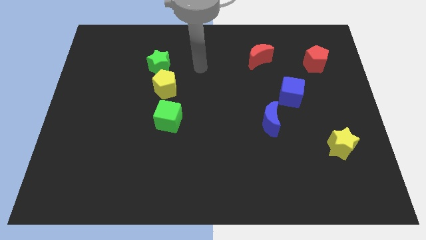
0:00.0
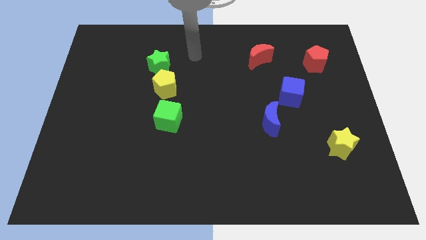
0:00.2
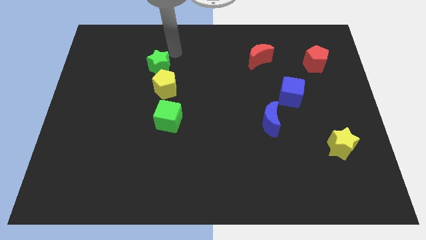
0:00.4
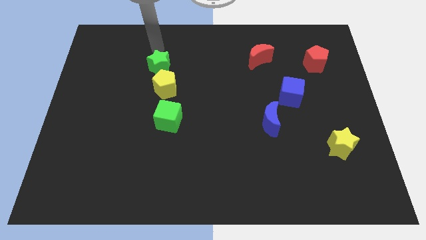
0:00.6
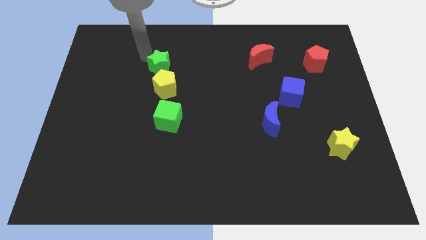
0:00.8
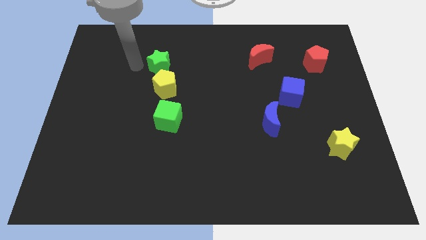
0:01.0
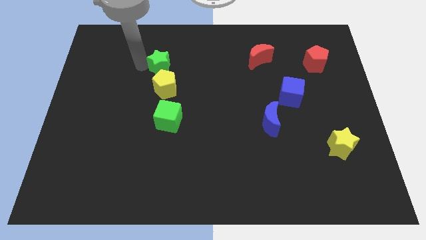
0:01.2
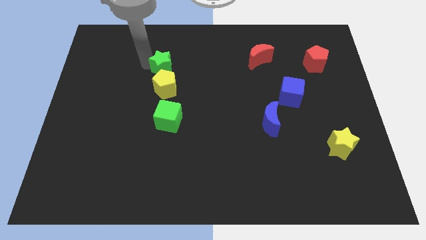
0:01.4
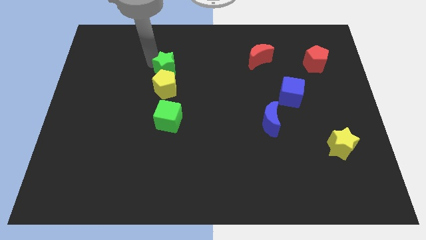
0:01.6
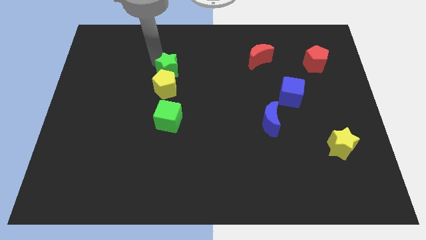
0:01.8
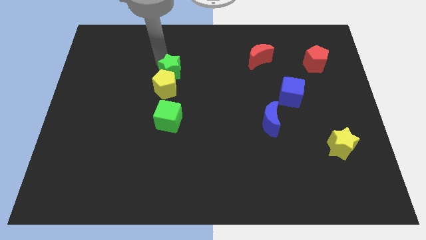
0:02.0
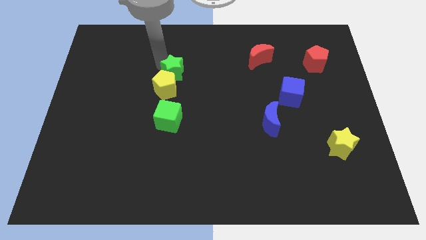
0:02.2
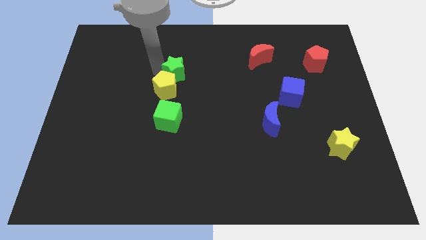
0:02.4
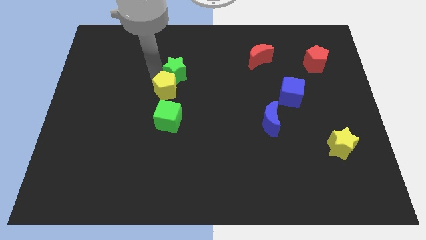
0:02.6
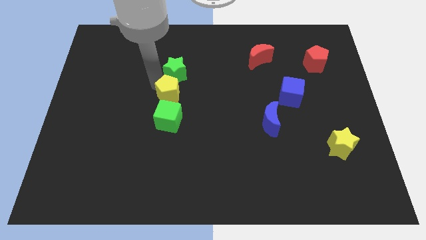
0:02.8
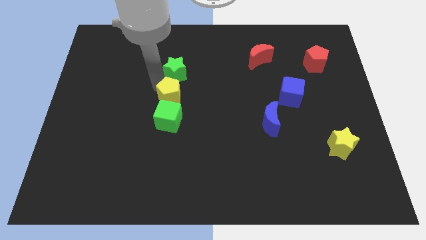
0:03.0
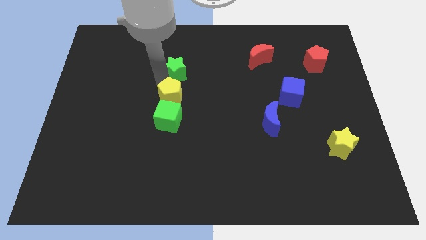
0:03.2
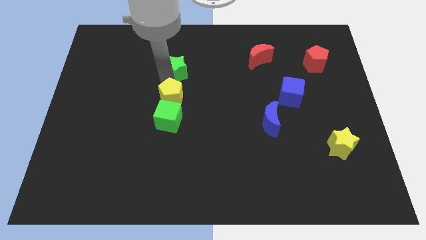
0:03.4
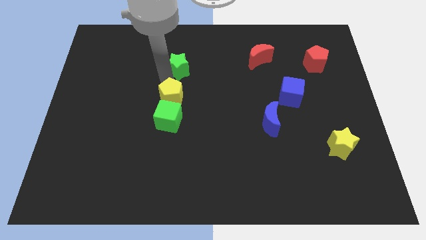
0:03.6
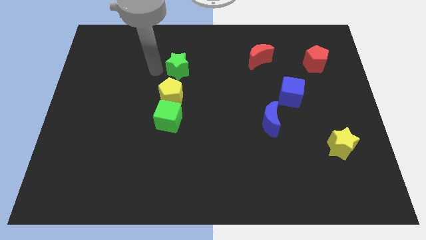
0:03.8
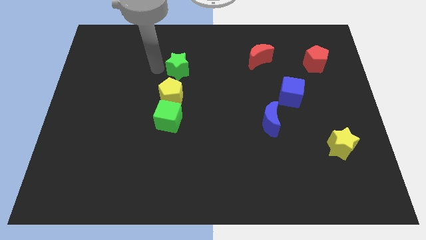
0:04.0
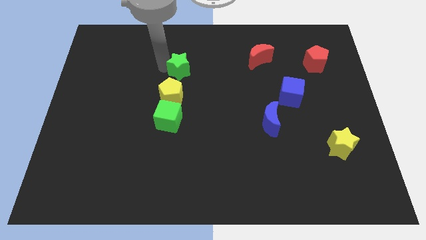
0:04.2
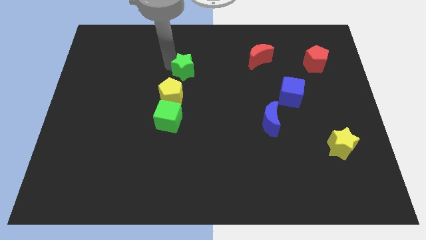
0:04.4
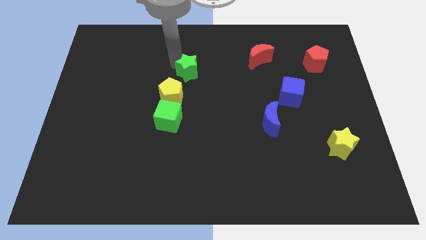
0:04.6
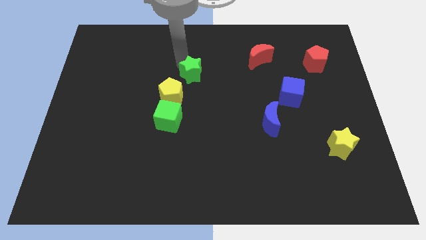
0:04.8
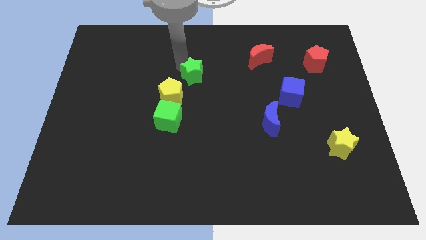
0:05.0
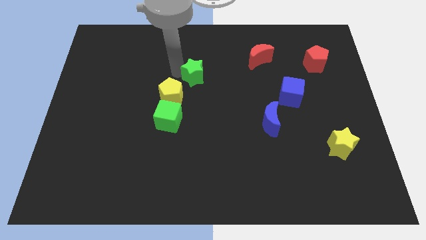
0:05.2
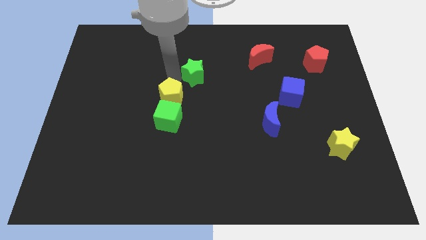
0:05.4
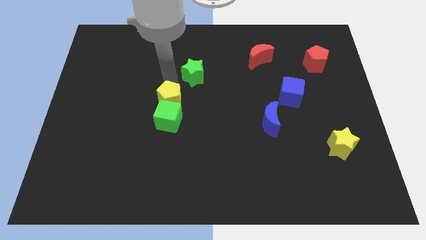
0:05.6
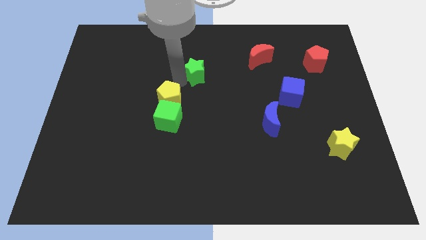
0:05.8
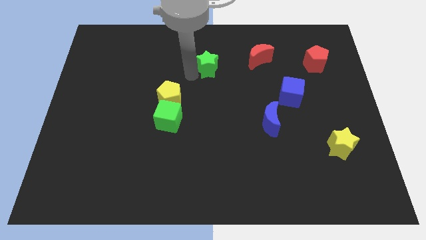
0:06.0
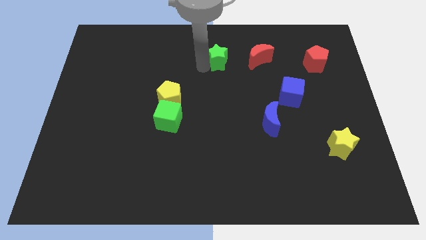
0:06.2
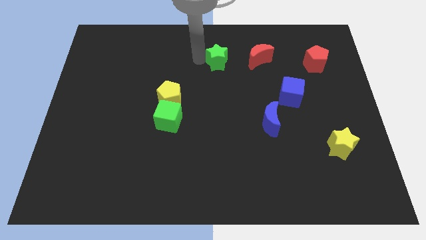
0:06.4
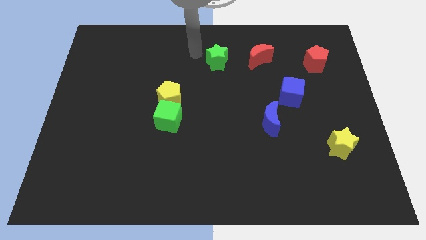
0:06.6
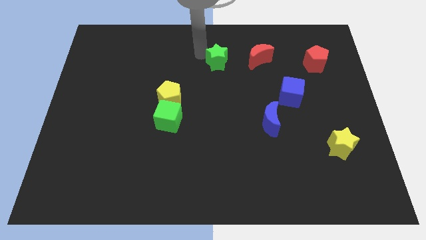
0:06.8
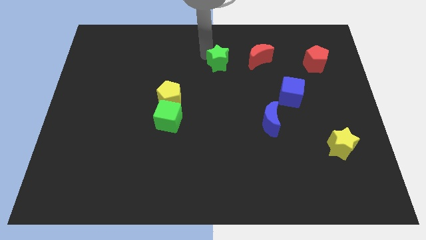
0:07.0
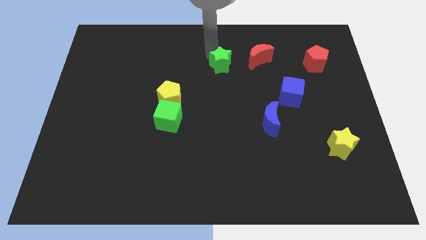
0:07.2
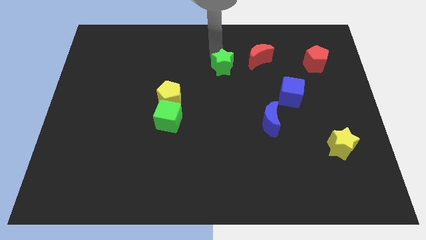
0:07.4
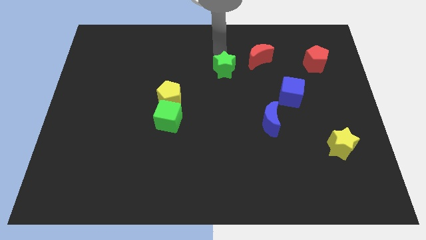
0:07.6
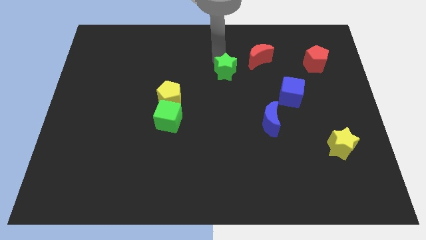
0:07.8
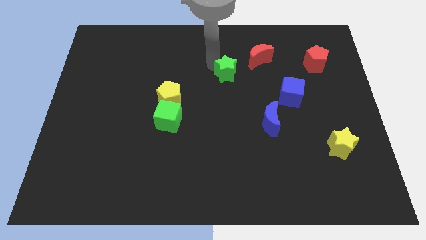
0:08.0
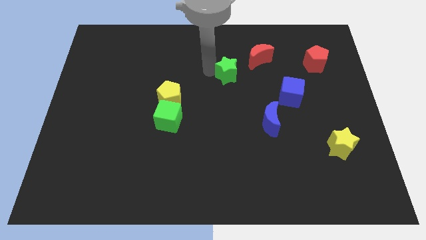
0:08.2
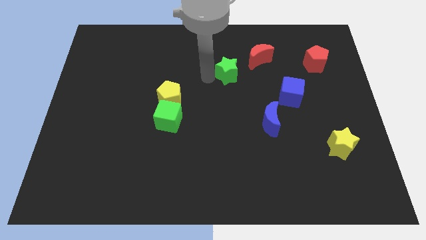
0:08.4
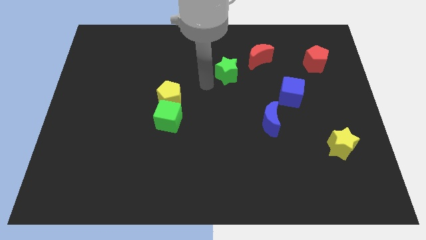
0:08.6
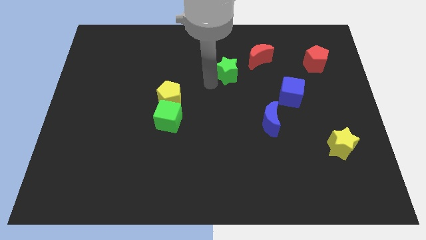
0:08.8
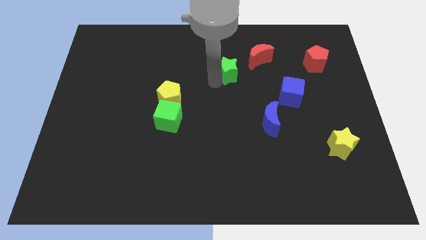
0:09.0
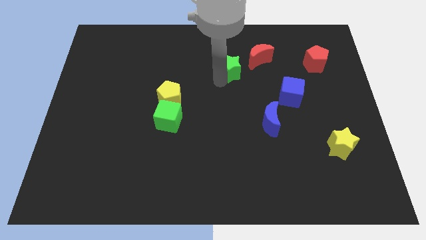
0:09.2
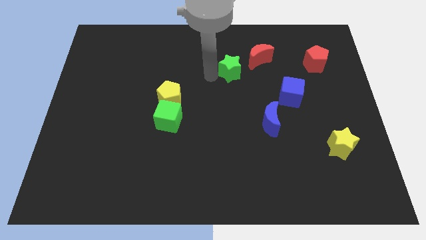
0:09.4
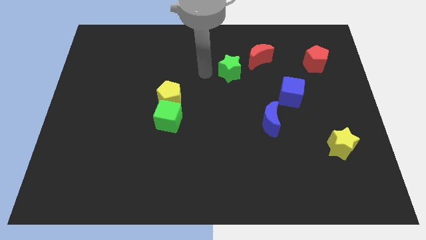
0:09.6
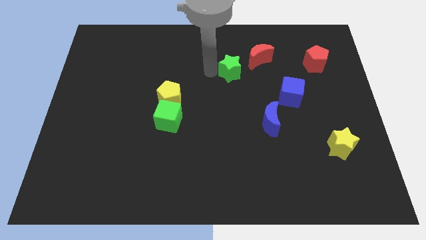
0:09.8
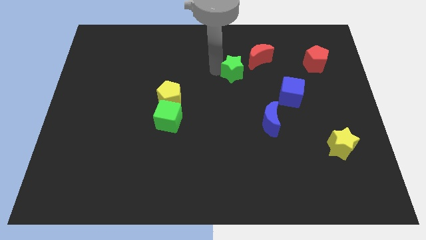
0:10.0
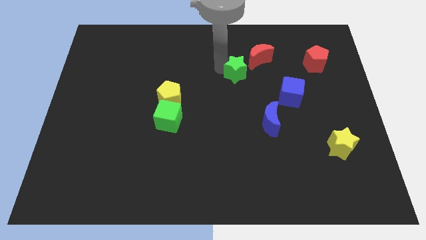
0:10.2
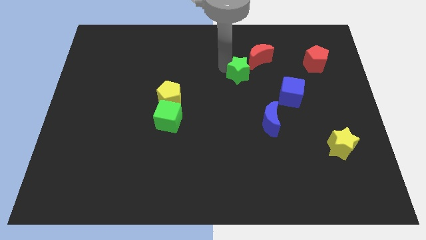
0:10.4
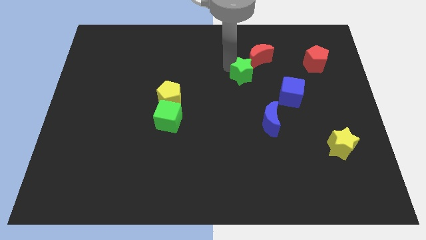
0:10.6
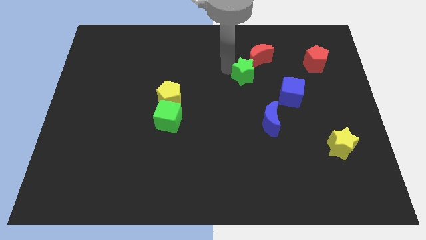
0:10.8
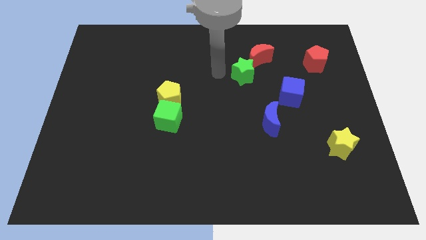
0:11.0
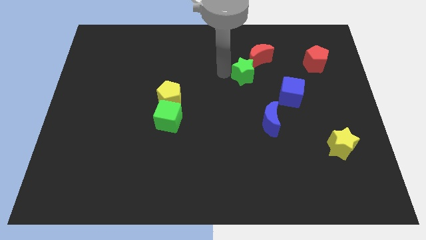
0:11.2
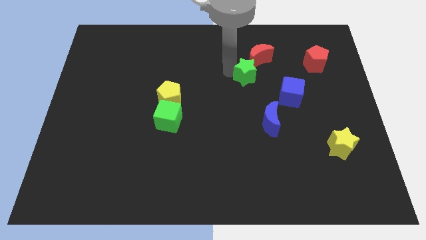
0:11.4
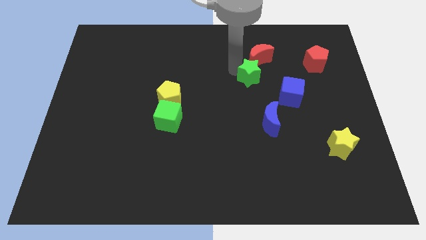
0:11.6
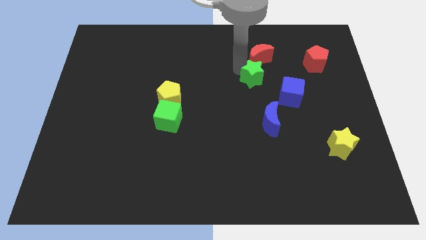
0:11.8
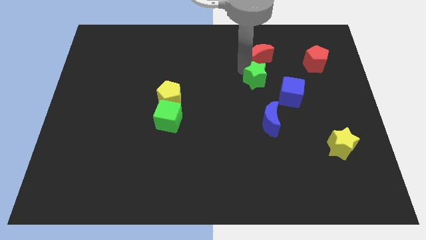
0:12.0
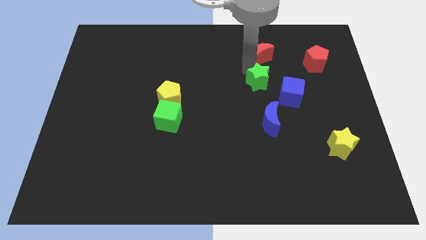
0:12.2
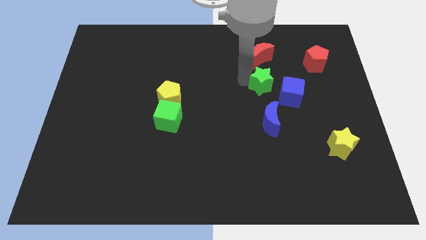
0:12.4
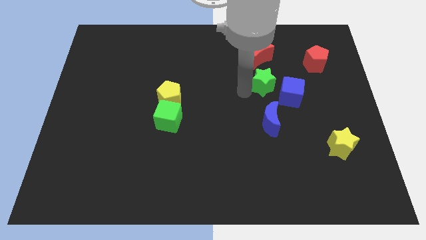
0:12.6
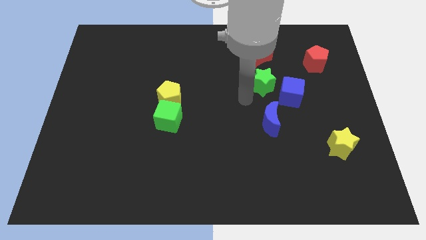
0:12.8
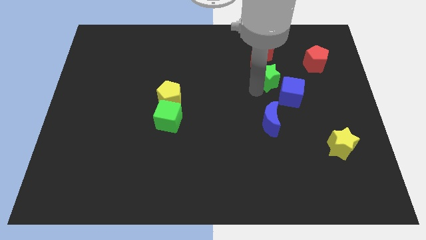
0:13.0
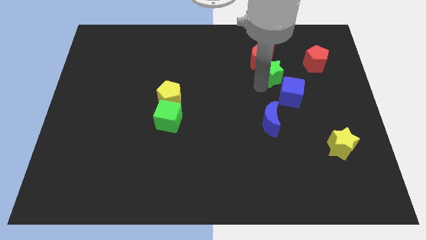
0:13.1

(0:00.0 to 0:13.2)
slide the green star to the top side of the blue cube
